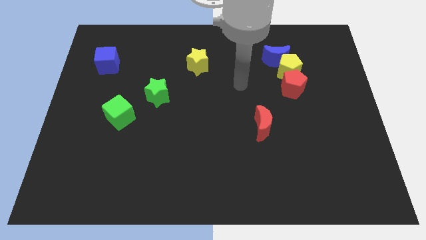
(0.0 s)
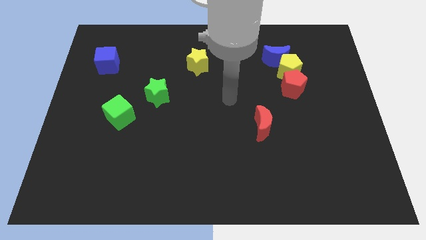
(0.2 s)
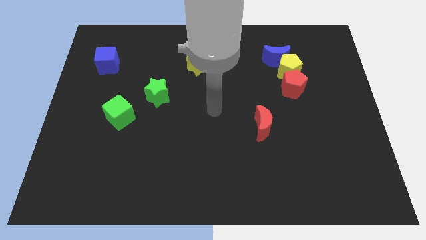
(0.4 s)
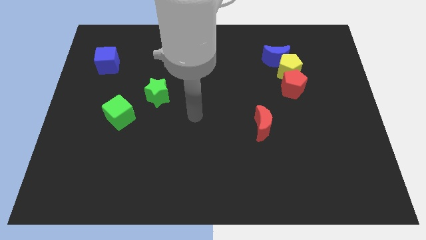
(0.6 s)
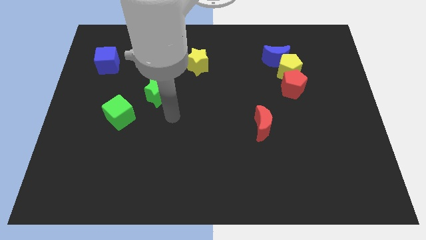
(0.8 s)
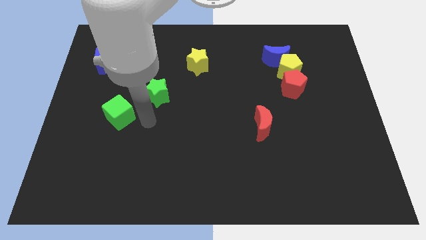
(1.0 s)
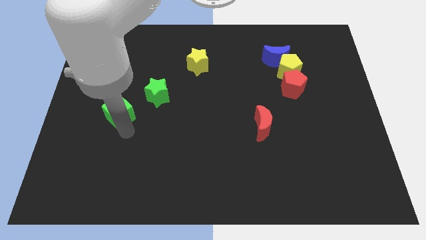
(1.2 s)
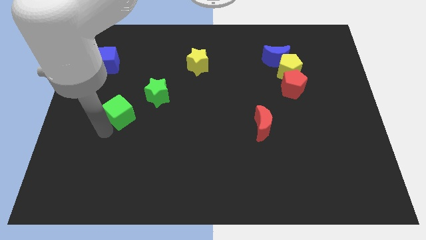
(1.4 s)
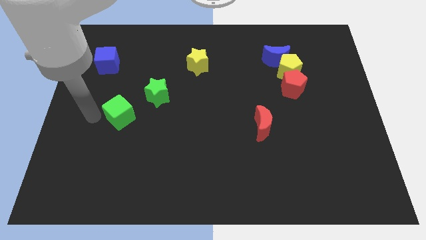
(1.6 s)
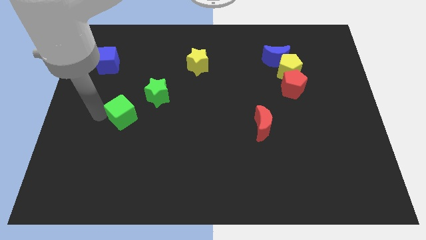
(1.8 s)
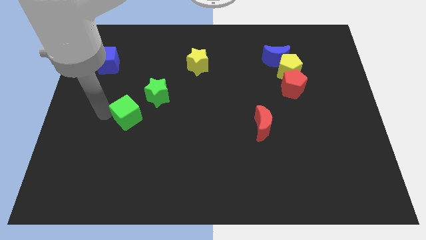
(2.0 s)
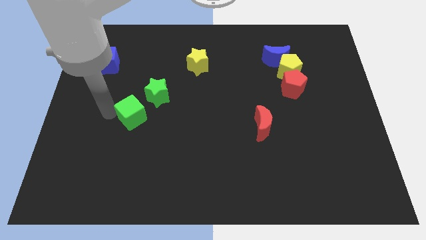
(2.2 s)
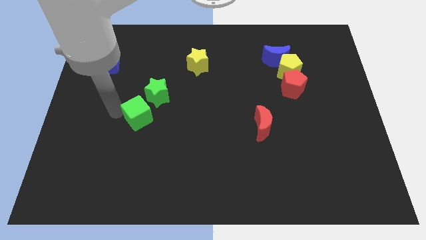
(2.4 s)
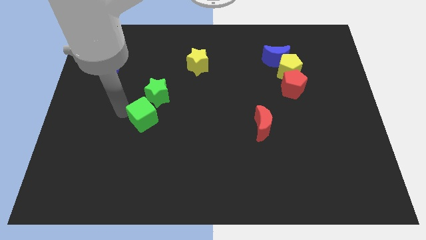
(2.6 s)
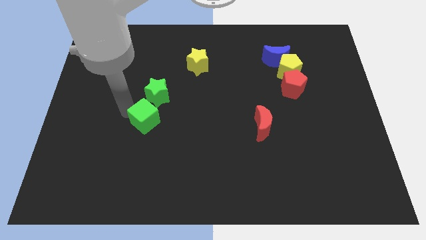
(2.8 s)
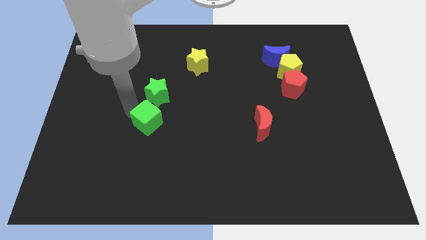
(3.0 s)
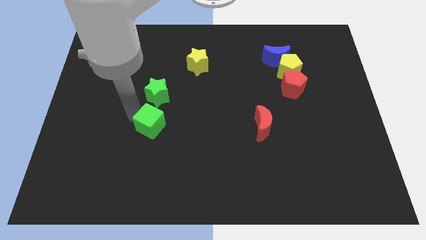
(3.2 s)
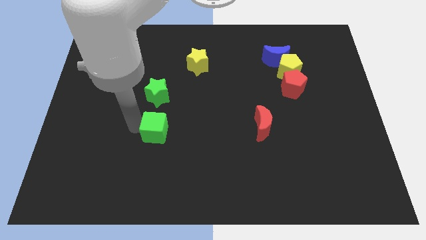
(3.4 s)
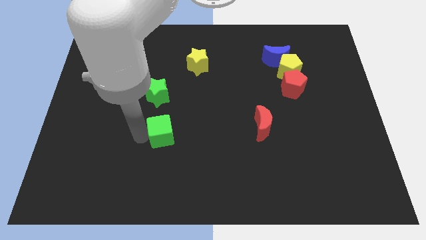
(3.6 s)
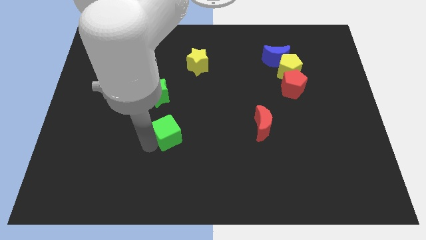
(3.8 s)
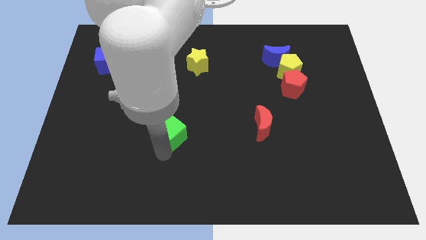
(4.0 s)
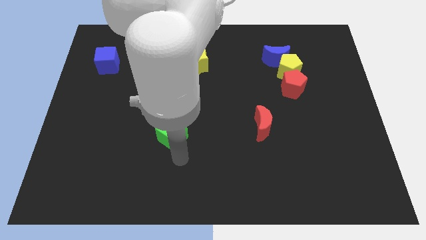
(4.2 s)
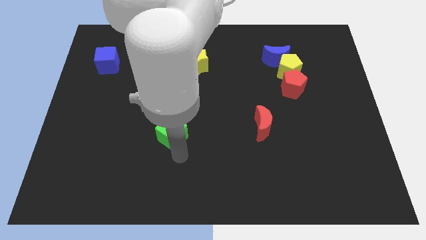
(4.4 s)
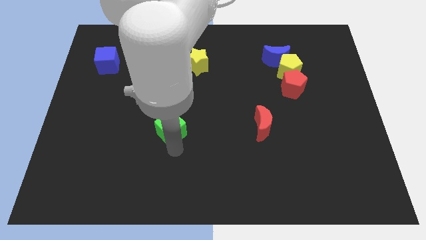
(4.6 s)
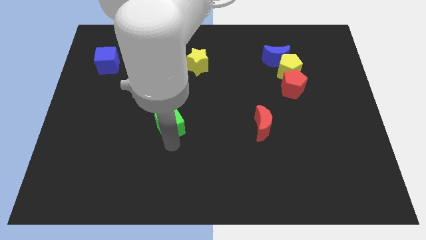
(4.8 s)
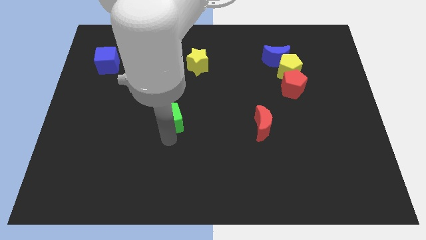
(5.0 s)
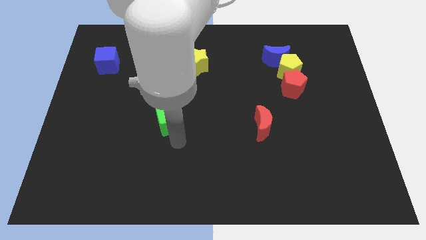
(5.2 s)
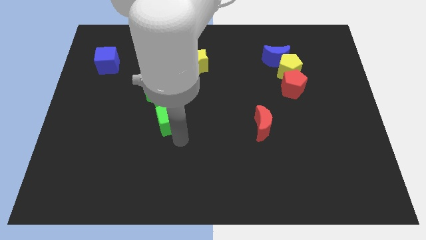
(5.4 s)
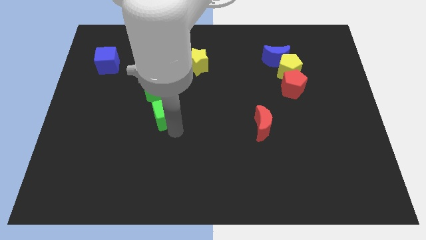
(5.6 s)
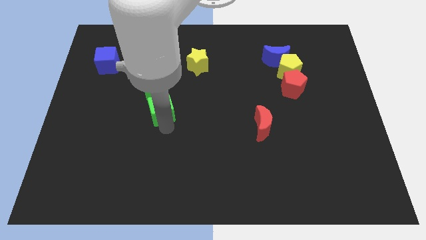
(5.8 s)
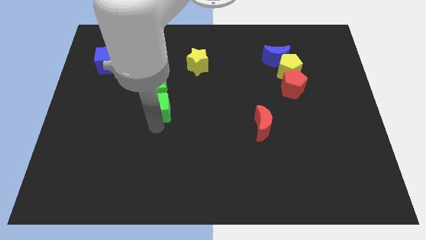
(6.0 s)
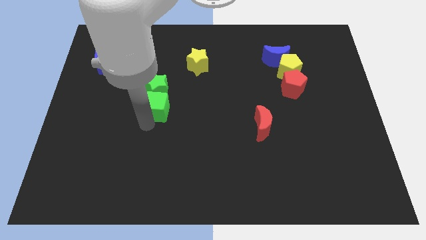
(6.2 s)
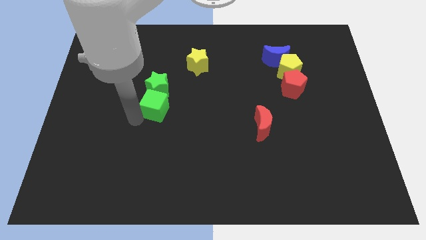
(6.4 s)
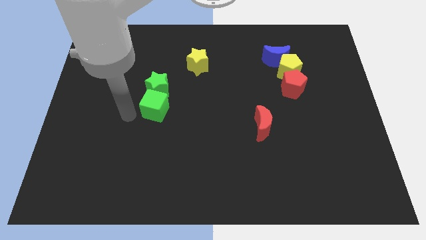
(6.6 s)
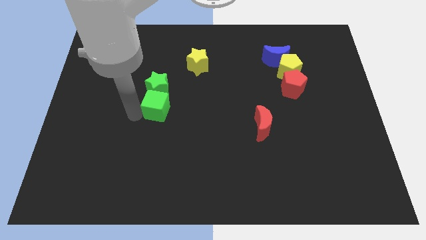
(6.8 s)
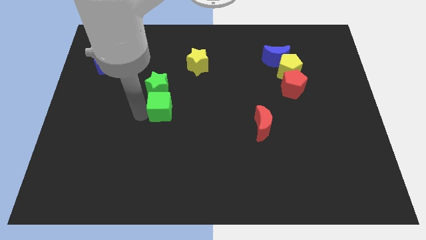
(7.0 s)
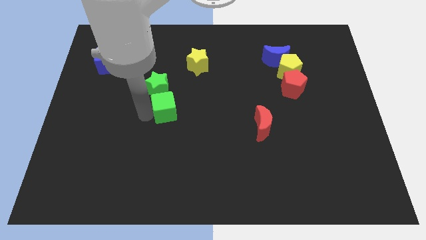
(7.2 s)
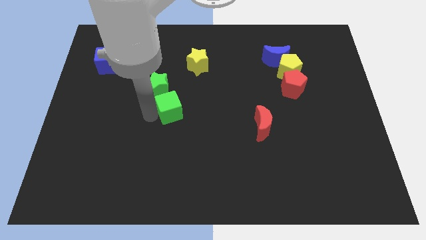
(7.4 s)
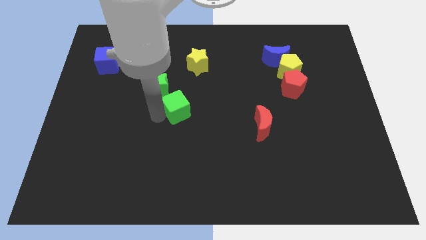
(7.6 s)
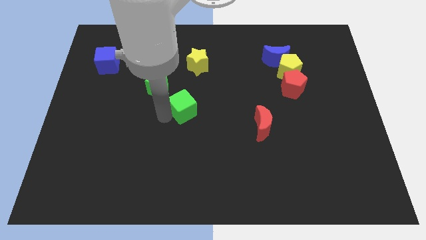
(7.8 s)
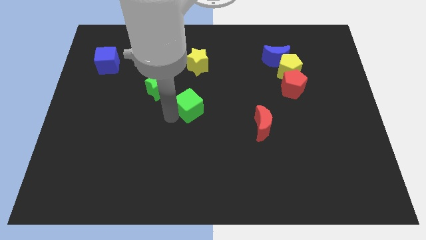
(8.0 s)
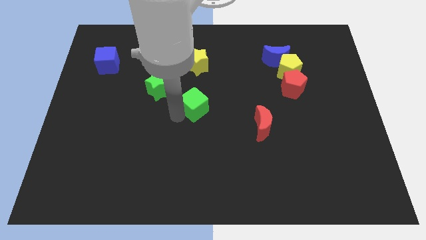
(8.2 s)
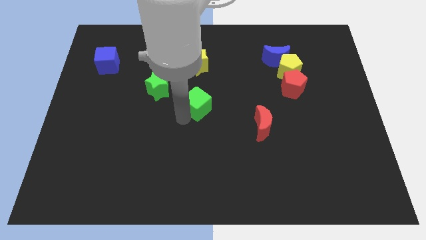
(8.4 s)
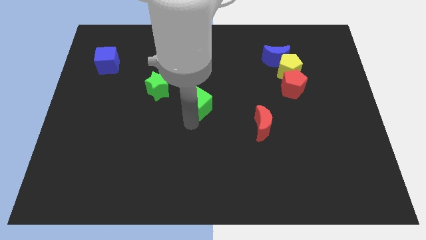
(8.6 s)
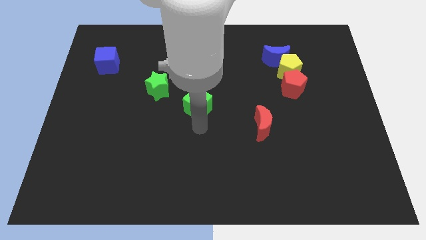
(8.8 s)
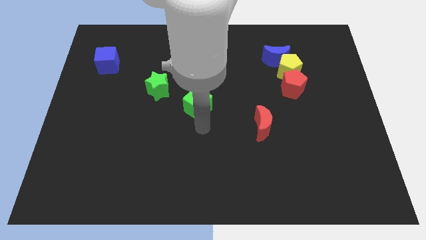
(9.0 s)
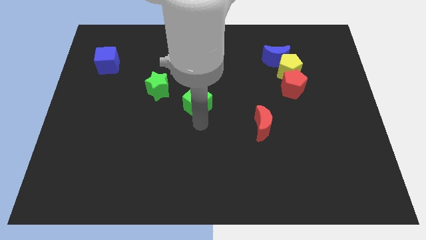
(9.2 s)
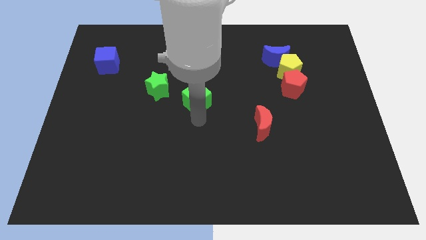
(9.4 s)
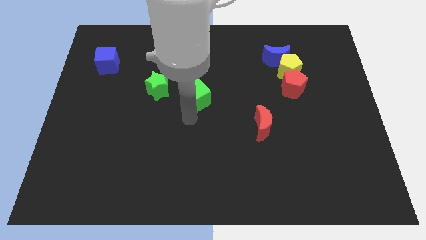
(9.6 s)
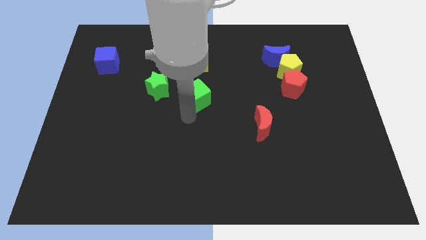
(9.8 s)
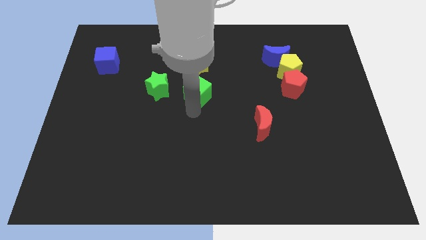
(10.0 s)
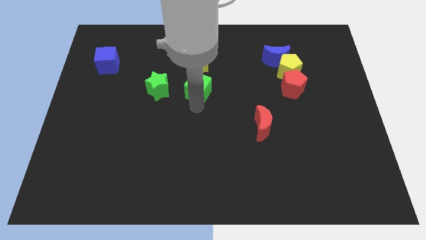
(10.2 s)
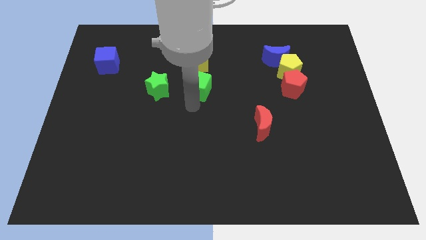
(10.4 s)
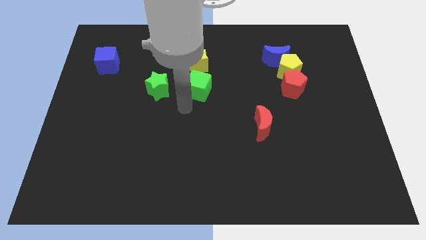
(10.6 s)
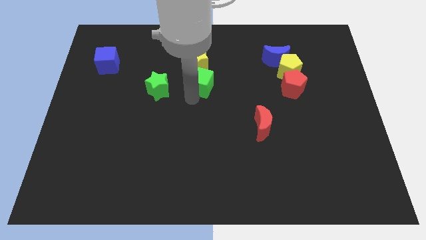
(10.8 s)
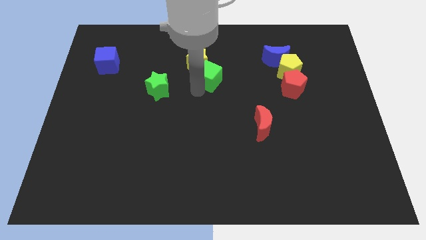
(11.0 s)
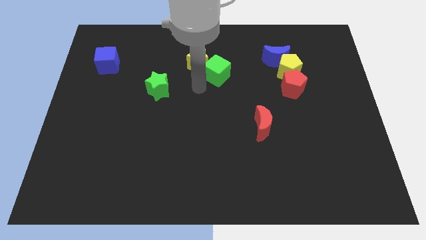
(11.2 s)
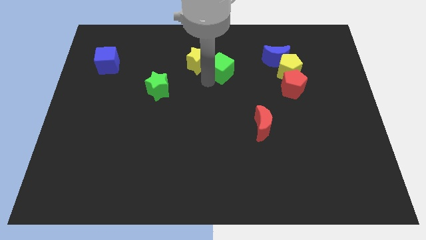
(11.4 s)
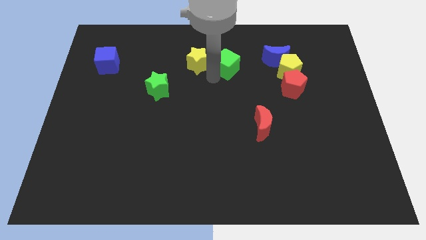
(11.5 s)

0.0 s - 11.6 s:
move the green cube left of the blue moon

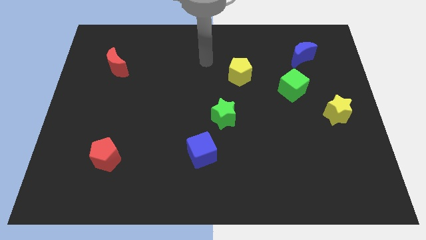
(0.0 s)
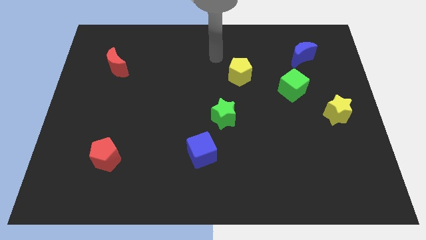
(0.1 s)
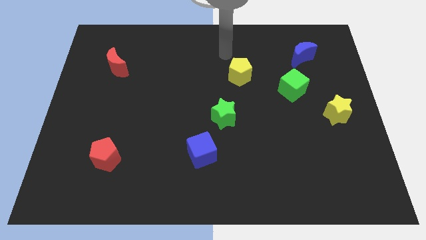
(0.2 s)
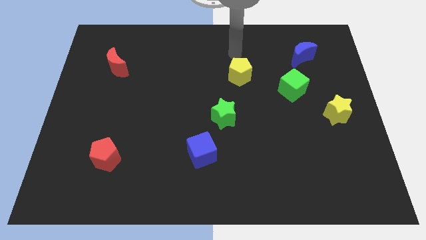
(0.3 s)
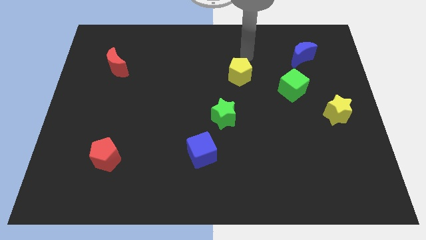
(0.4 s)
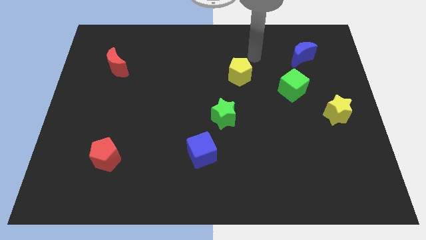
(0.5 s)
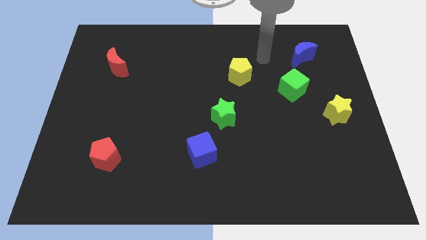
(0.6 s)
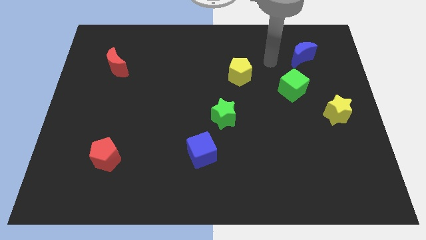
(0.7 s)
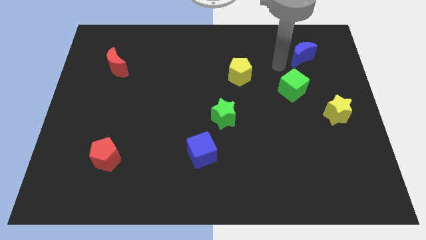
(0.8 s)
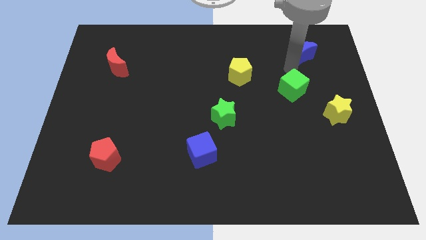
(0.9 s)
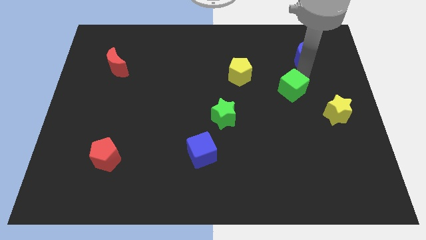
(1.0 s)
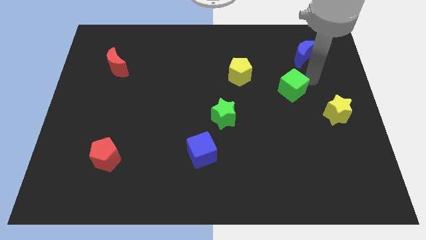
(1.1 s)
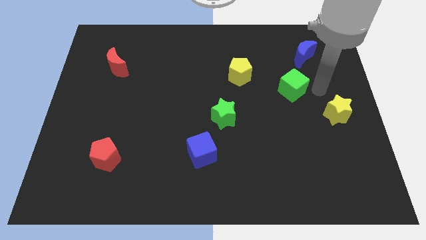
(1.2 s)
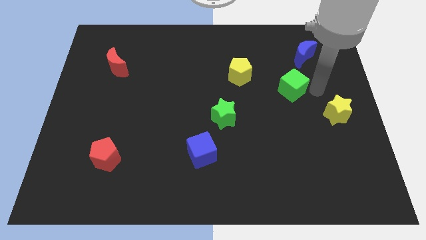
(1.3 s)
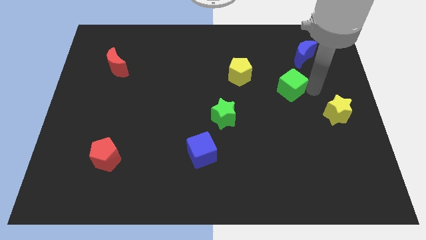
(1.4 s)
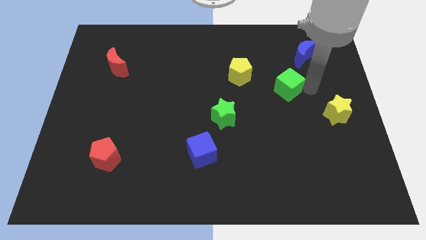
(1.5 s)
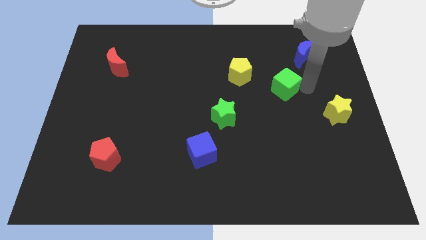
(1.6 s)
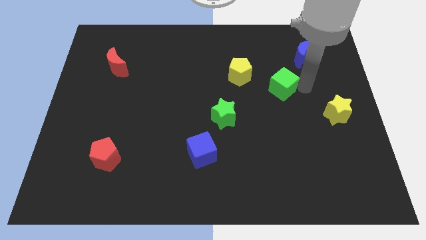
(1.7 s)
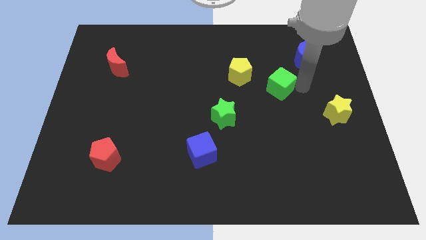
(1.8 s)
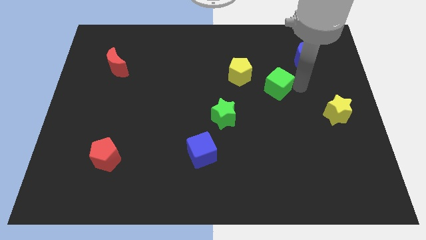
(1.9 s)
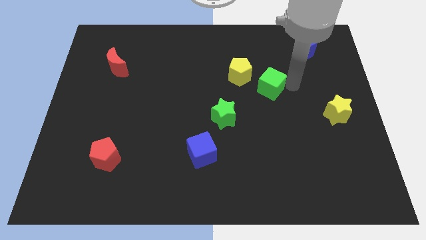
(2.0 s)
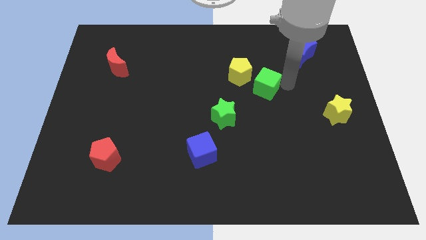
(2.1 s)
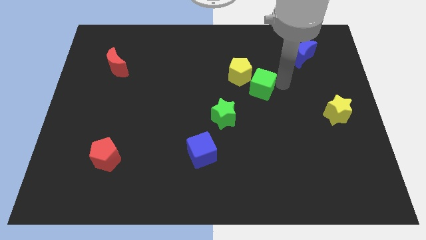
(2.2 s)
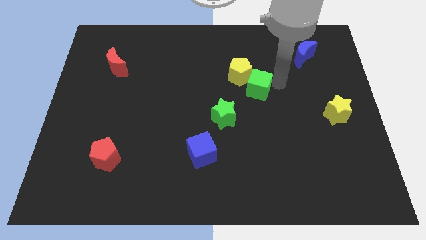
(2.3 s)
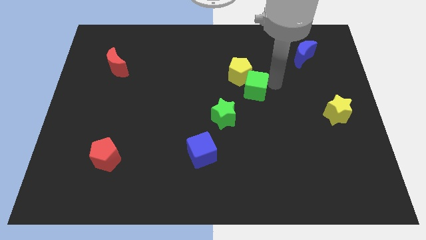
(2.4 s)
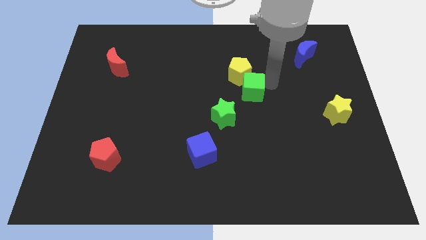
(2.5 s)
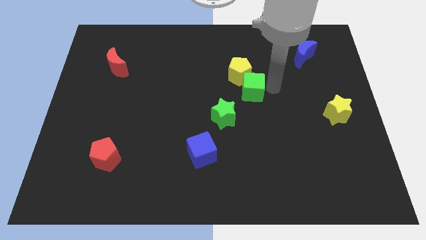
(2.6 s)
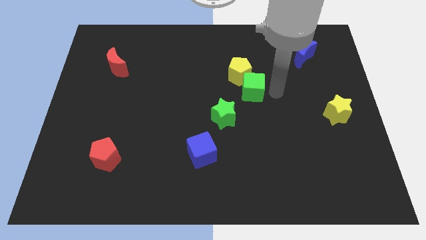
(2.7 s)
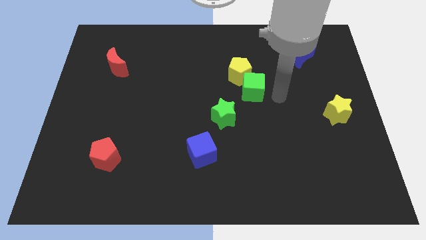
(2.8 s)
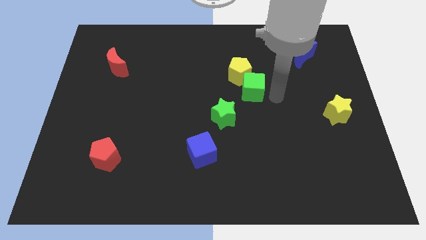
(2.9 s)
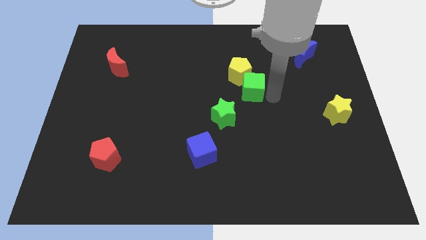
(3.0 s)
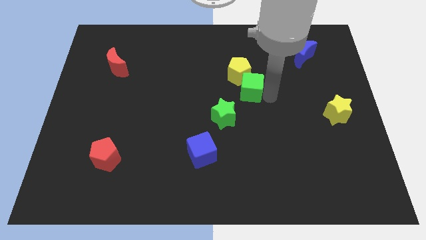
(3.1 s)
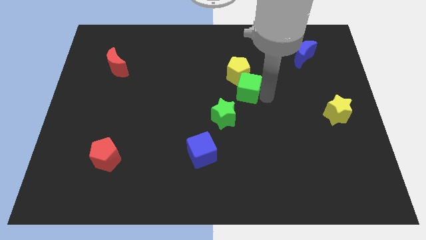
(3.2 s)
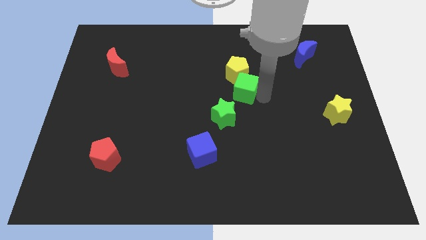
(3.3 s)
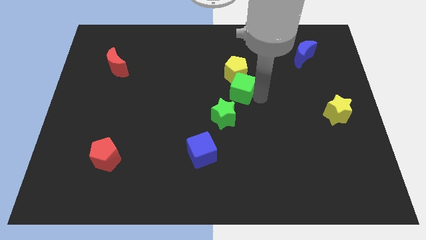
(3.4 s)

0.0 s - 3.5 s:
push the green cube above the green star
